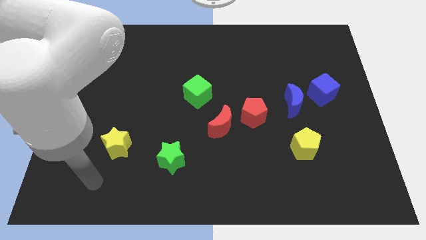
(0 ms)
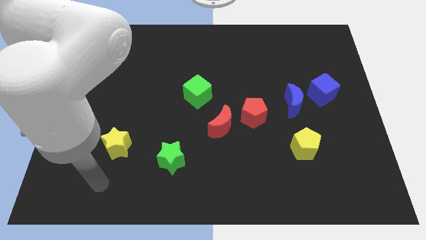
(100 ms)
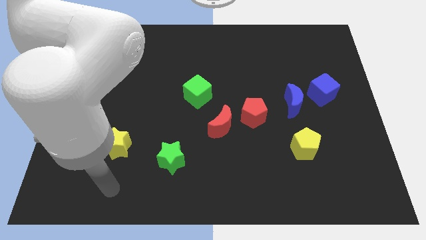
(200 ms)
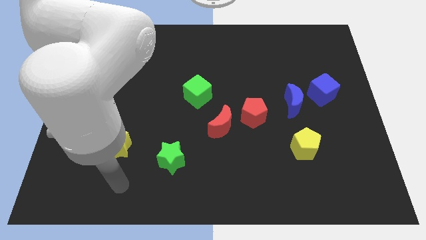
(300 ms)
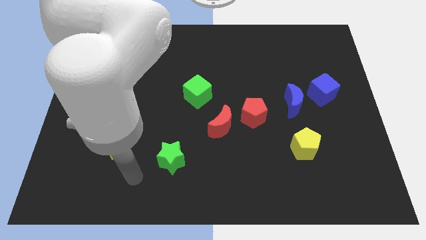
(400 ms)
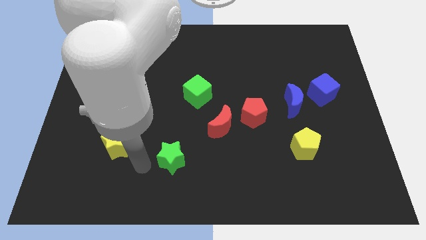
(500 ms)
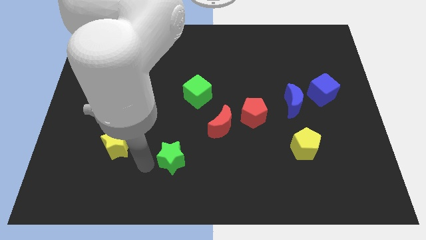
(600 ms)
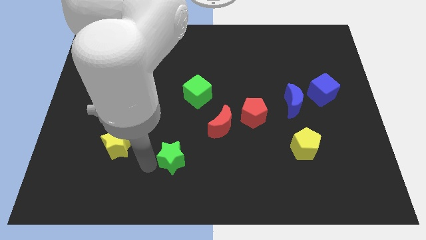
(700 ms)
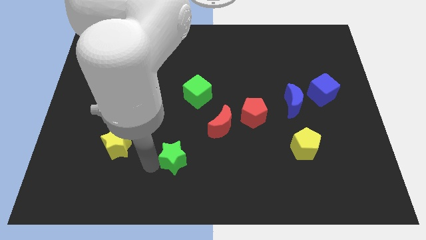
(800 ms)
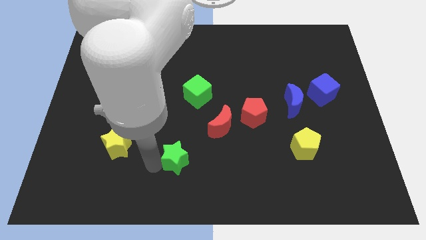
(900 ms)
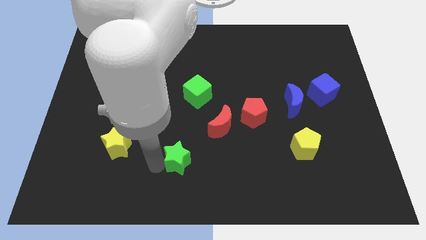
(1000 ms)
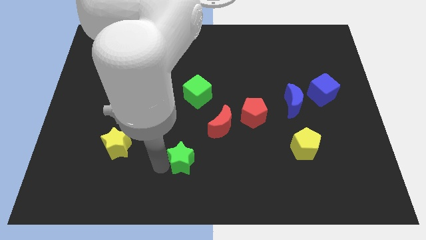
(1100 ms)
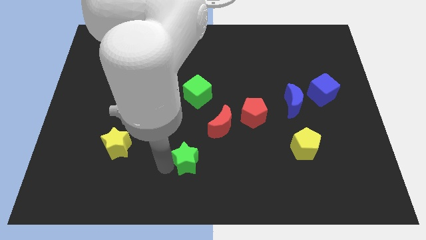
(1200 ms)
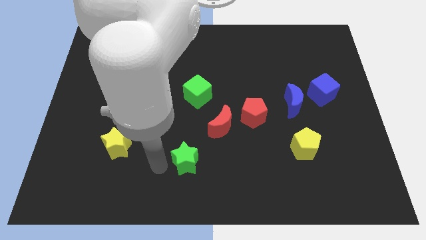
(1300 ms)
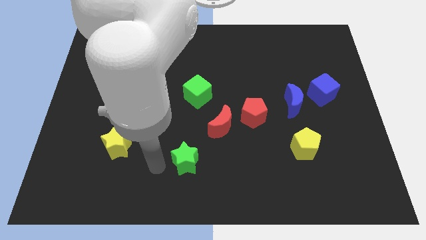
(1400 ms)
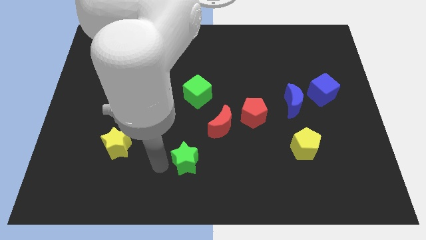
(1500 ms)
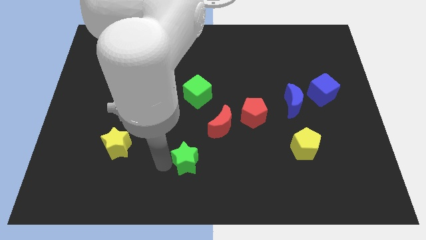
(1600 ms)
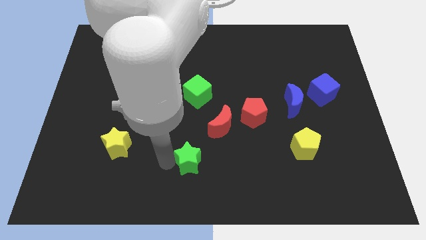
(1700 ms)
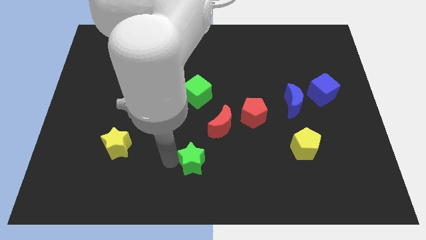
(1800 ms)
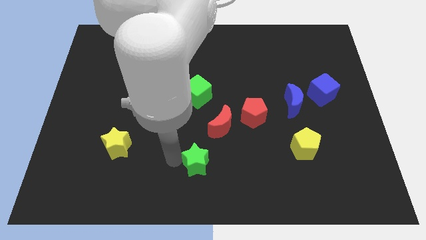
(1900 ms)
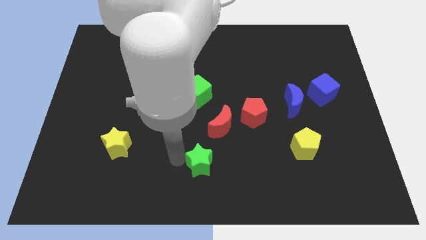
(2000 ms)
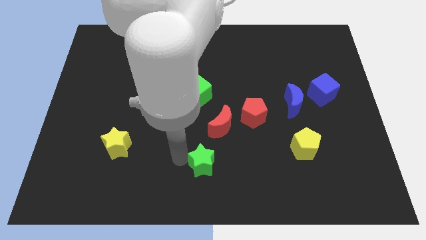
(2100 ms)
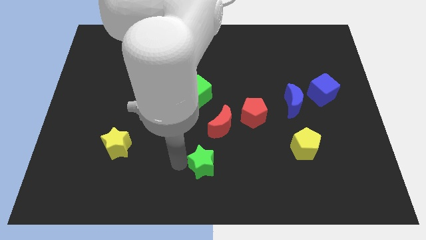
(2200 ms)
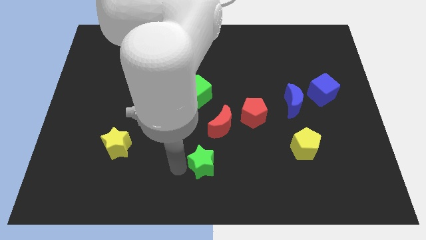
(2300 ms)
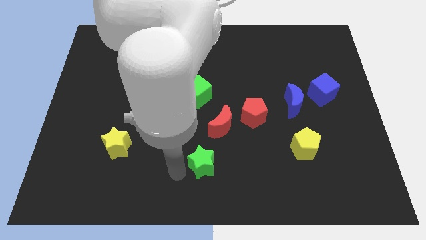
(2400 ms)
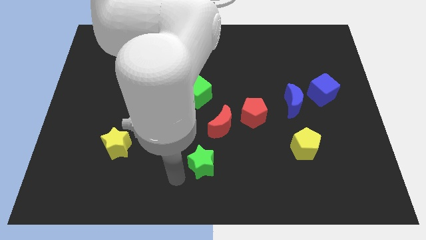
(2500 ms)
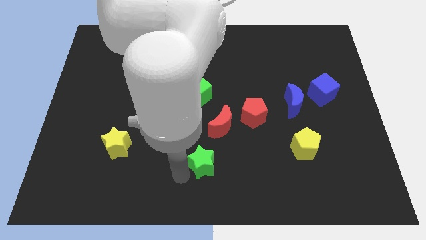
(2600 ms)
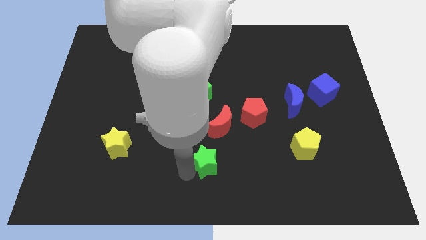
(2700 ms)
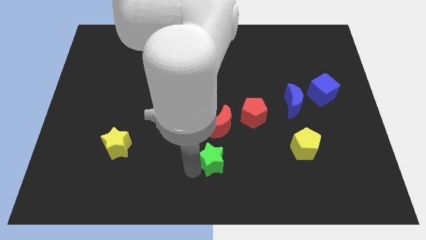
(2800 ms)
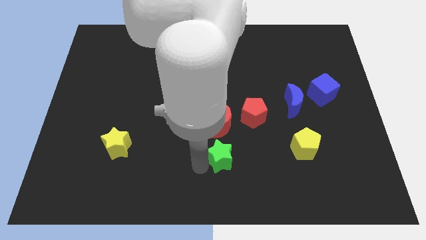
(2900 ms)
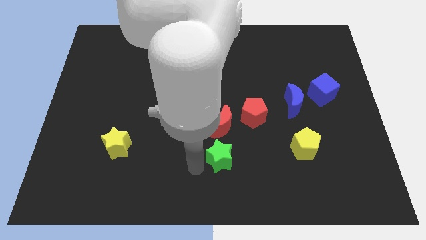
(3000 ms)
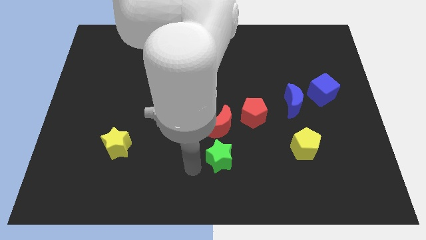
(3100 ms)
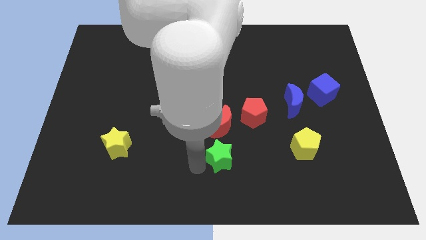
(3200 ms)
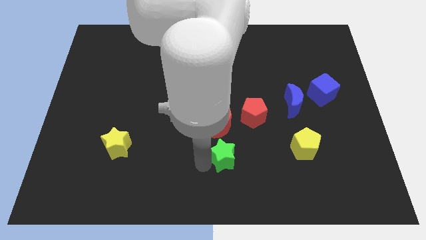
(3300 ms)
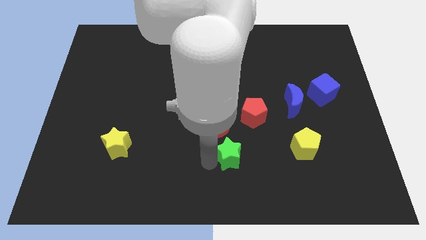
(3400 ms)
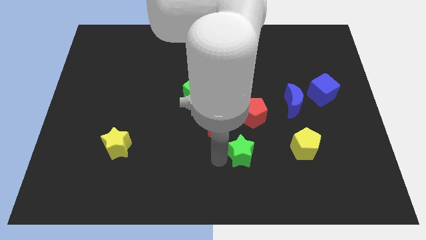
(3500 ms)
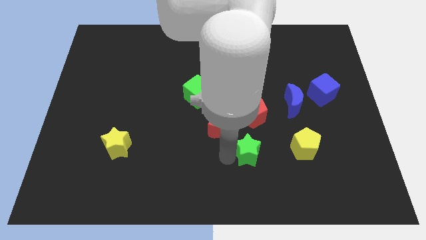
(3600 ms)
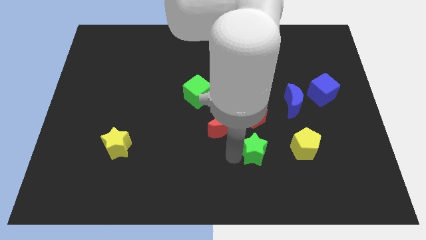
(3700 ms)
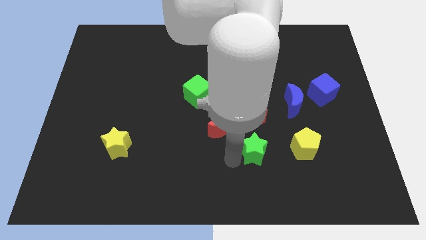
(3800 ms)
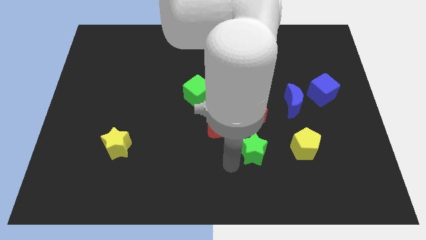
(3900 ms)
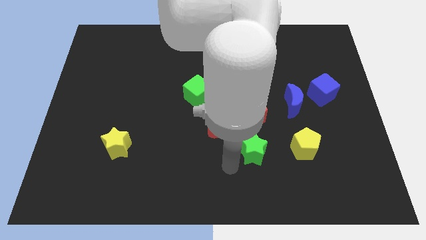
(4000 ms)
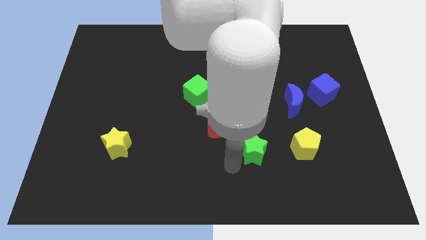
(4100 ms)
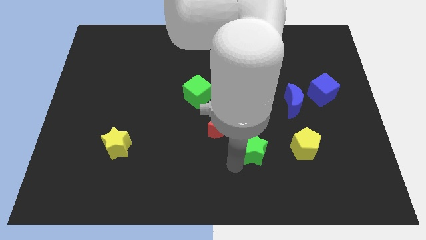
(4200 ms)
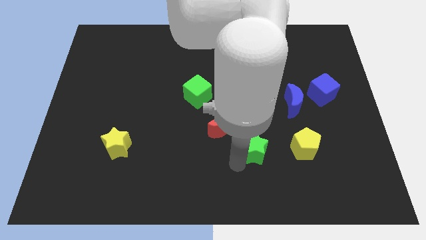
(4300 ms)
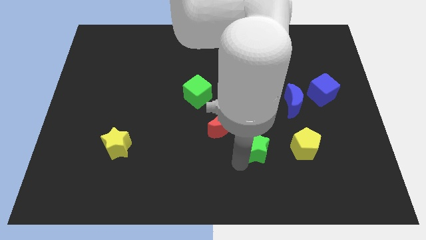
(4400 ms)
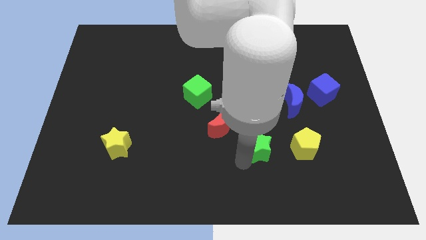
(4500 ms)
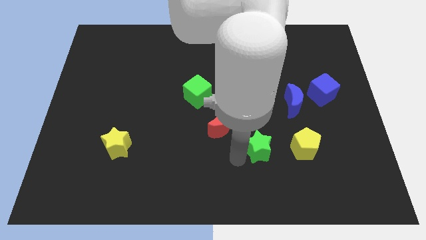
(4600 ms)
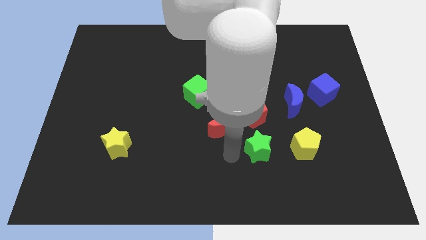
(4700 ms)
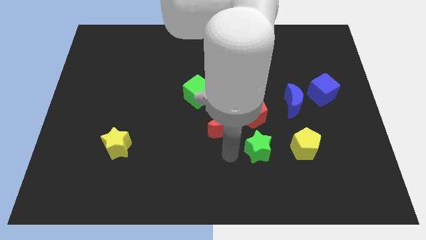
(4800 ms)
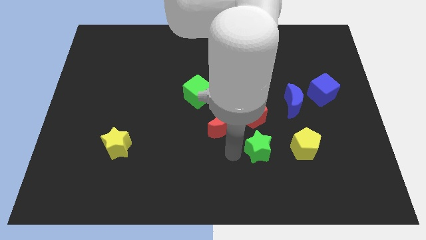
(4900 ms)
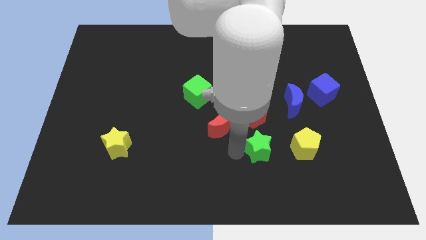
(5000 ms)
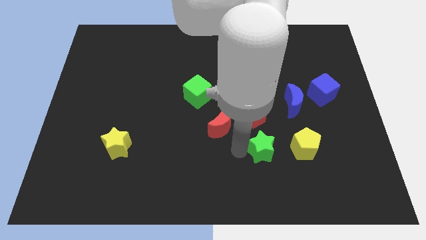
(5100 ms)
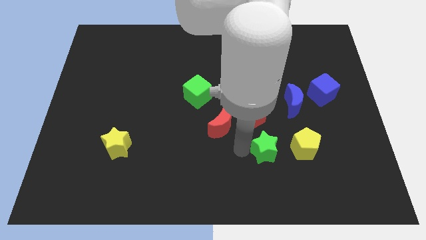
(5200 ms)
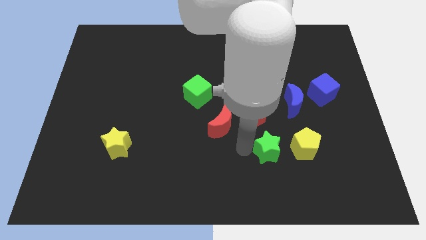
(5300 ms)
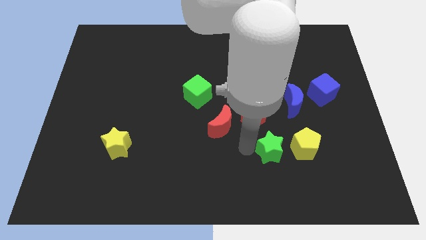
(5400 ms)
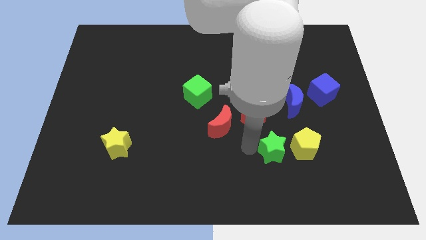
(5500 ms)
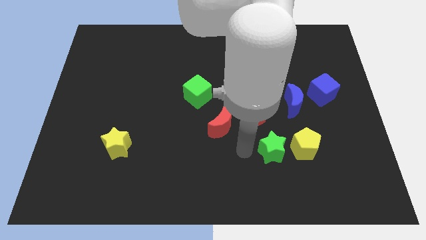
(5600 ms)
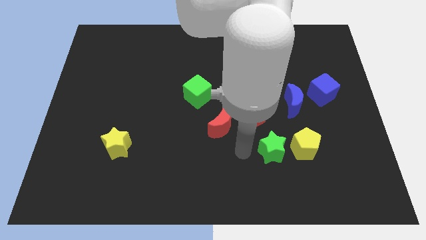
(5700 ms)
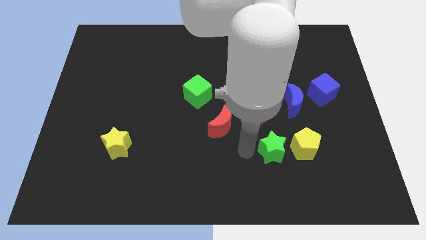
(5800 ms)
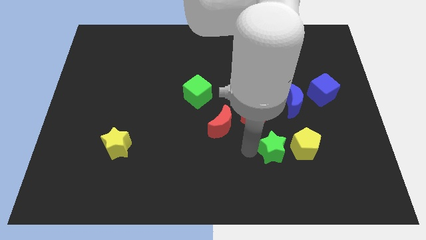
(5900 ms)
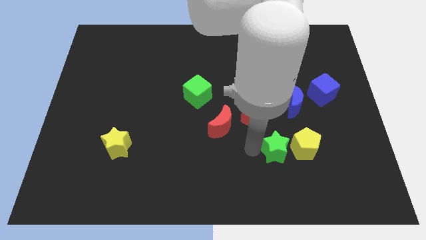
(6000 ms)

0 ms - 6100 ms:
slide the green star to the yellow pentagon

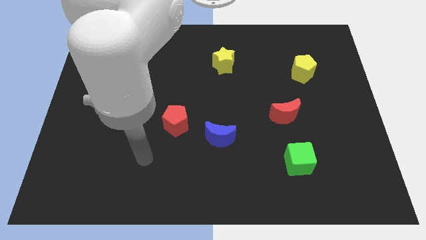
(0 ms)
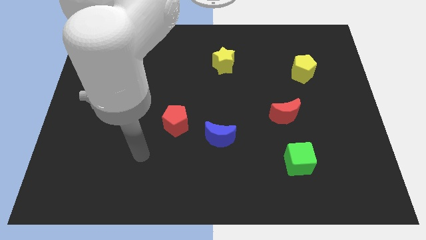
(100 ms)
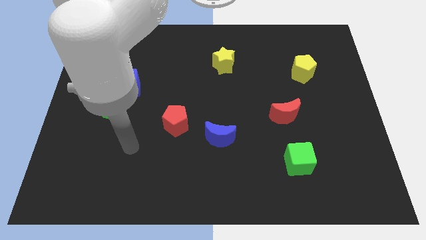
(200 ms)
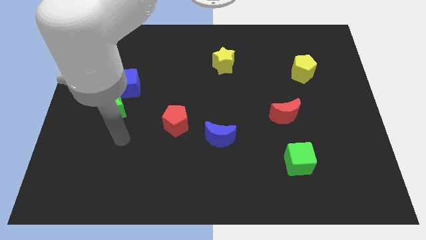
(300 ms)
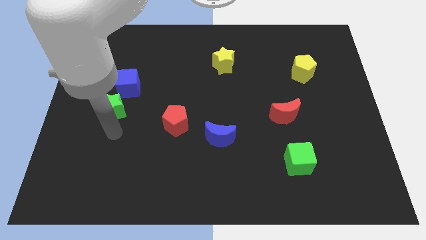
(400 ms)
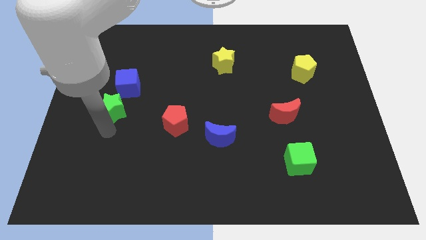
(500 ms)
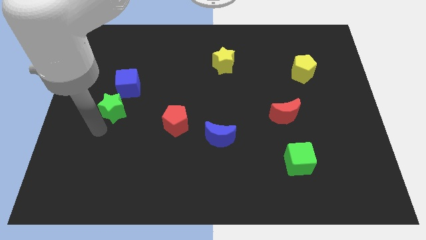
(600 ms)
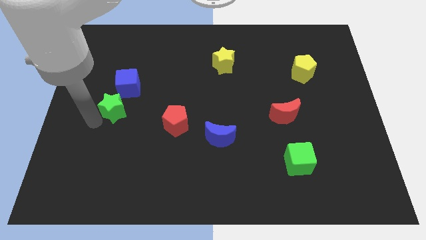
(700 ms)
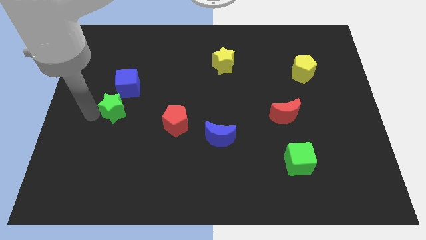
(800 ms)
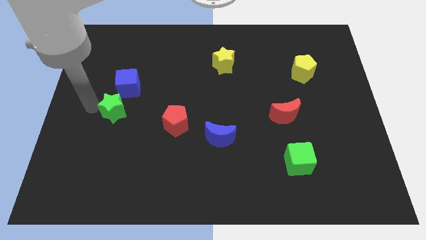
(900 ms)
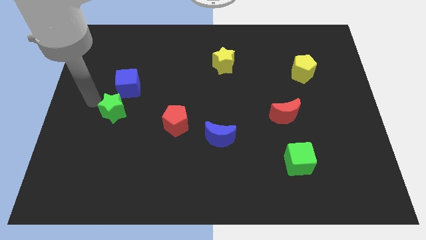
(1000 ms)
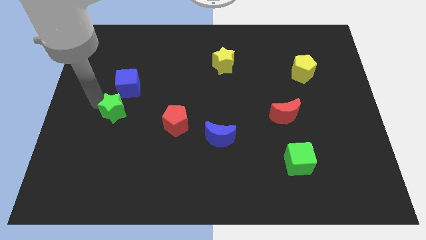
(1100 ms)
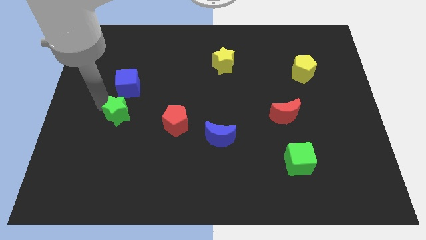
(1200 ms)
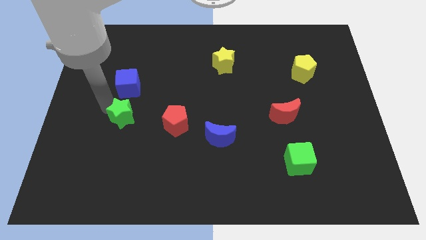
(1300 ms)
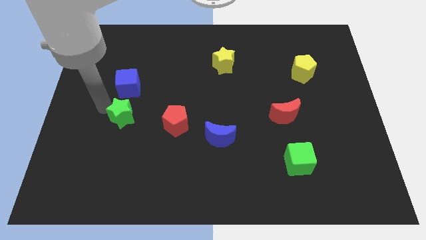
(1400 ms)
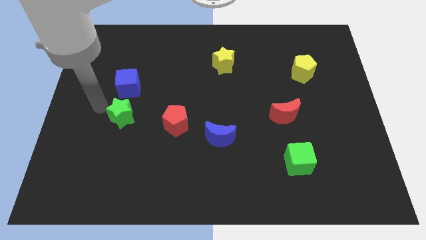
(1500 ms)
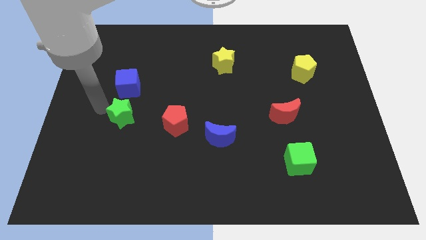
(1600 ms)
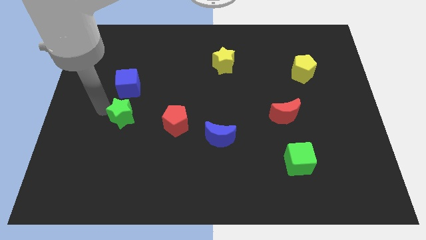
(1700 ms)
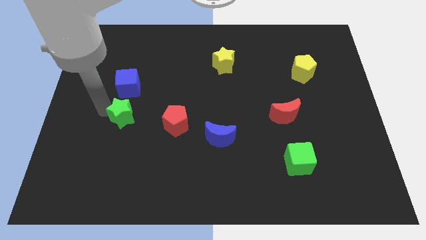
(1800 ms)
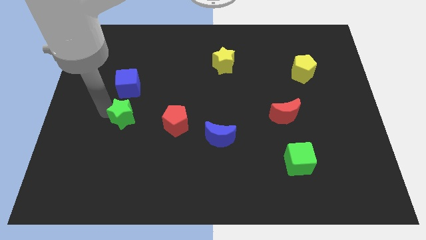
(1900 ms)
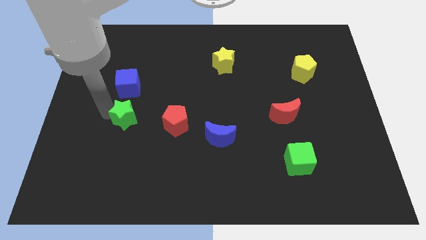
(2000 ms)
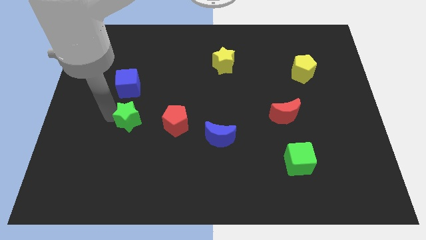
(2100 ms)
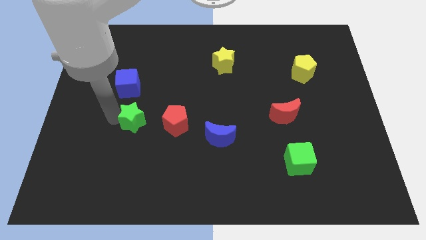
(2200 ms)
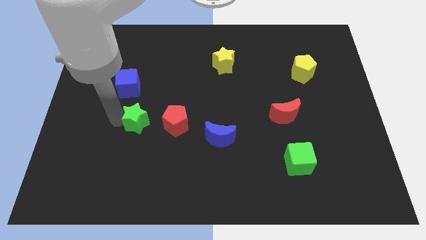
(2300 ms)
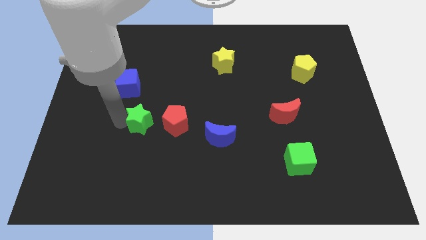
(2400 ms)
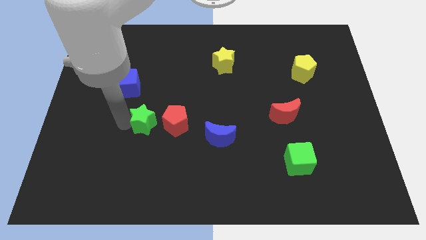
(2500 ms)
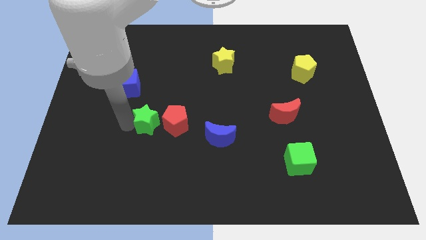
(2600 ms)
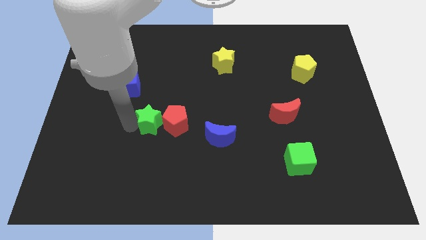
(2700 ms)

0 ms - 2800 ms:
slide the green star to the red pentagon
